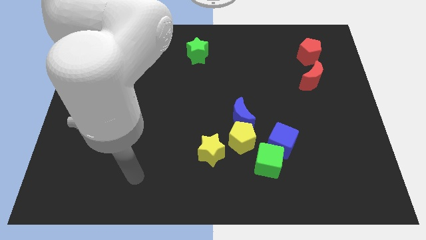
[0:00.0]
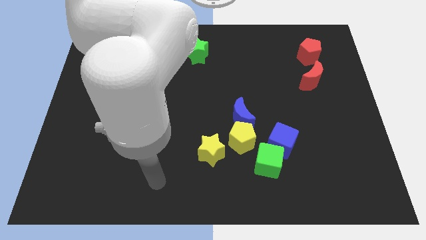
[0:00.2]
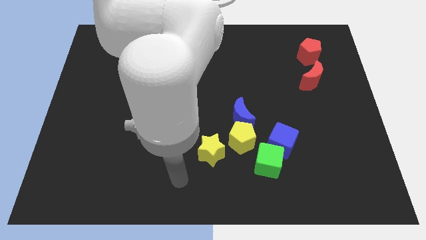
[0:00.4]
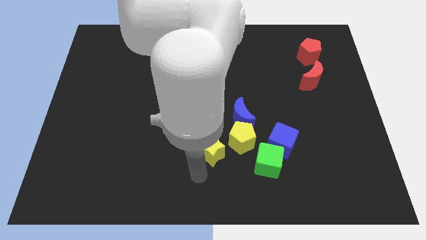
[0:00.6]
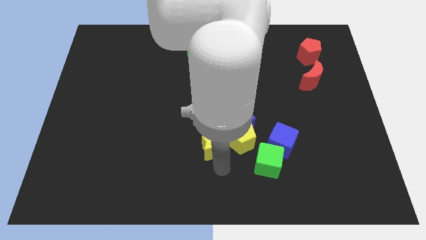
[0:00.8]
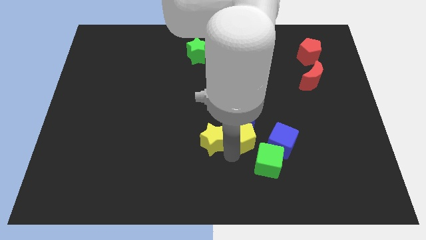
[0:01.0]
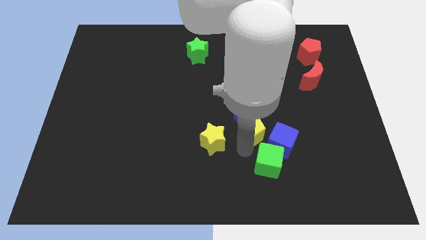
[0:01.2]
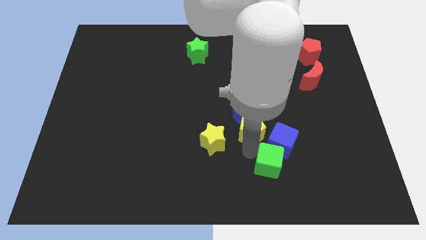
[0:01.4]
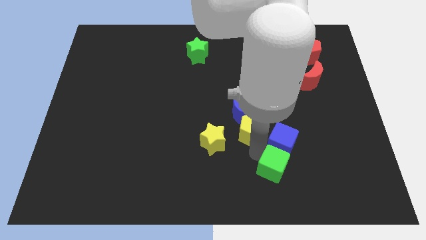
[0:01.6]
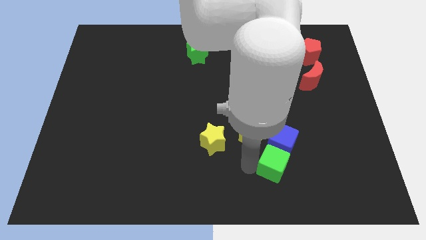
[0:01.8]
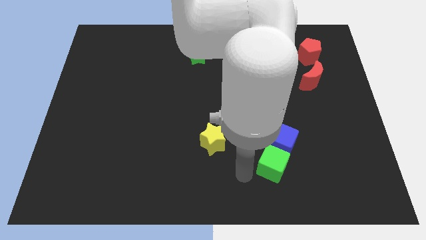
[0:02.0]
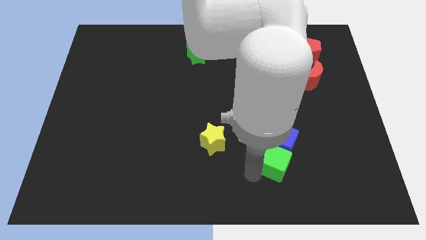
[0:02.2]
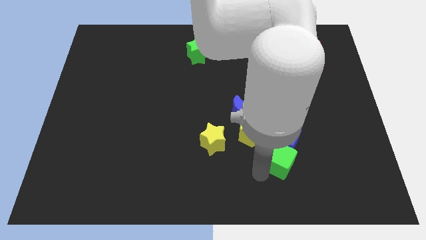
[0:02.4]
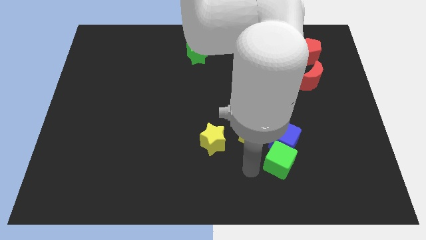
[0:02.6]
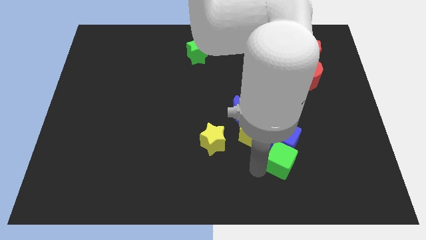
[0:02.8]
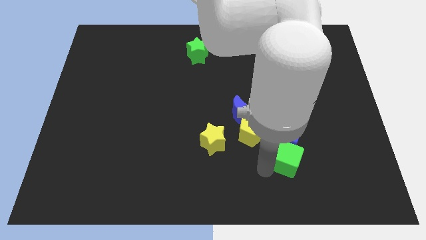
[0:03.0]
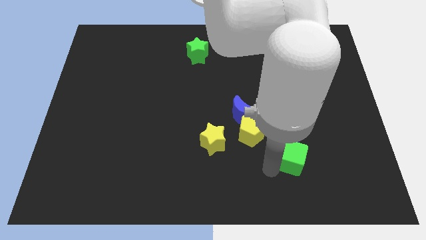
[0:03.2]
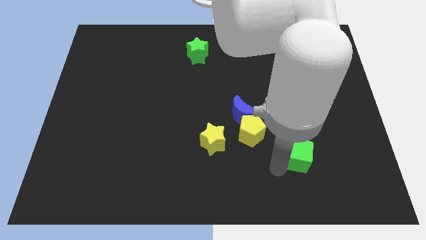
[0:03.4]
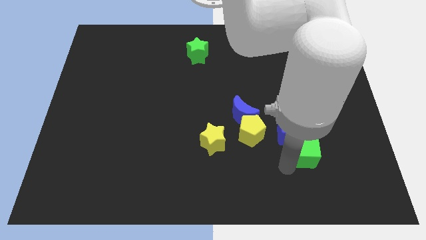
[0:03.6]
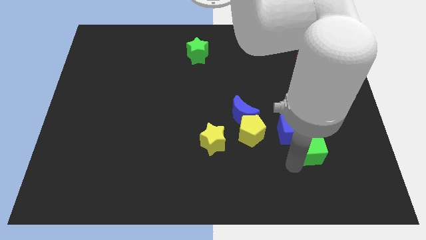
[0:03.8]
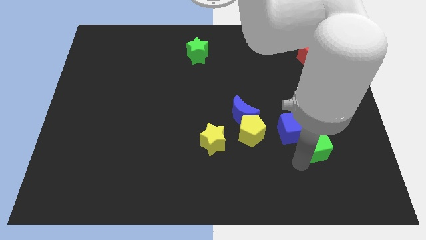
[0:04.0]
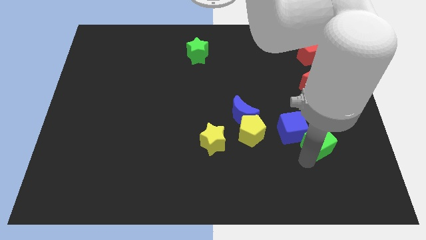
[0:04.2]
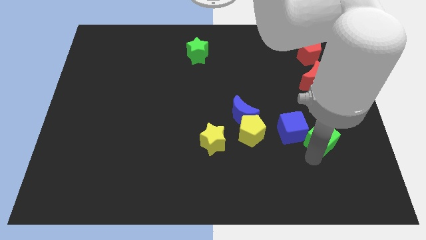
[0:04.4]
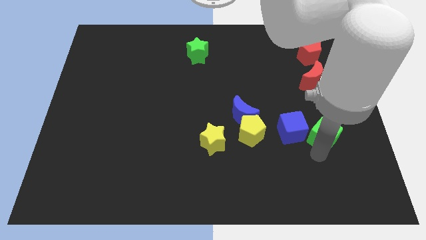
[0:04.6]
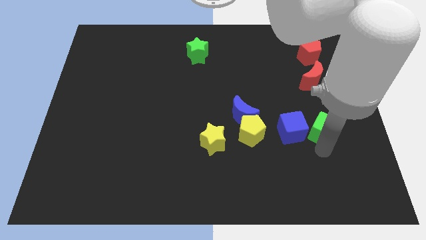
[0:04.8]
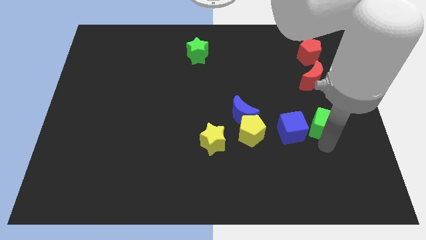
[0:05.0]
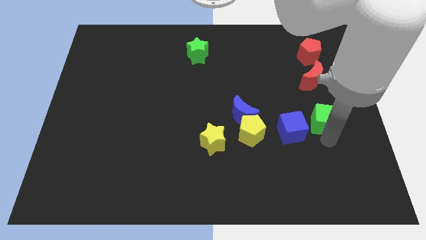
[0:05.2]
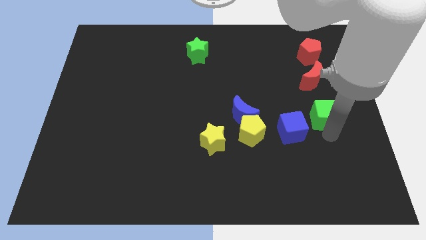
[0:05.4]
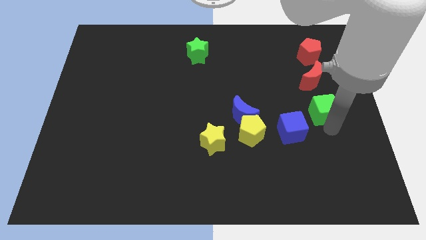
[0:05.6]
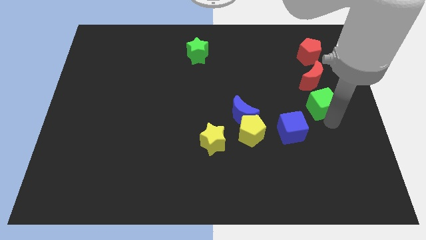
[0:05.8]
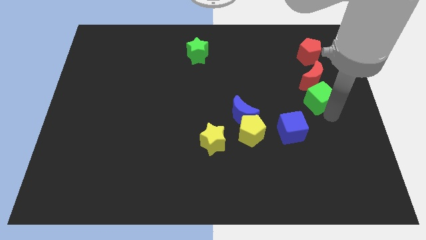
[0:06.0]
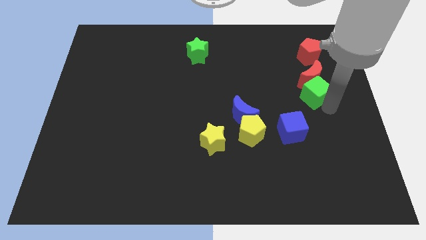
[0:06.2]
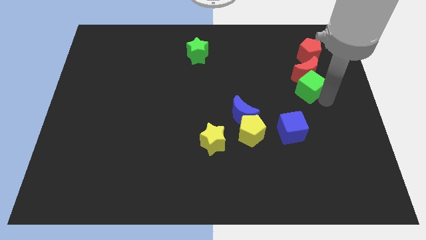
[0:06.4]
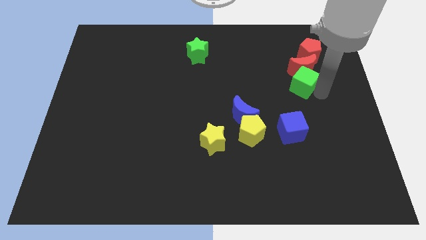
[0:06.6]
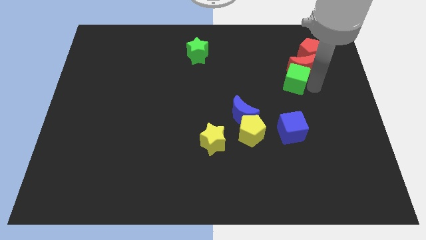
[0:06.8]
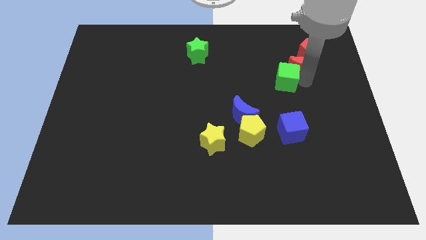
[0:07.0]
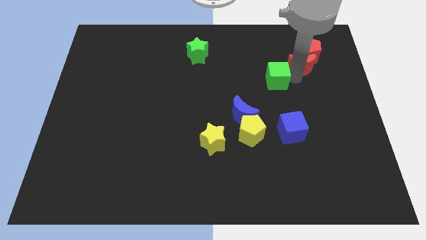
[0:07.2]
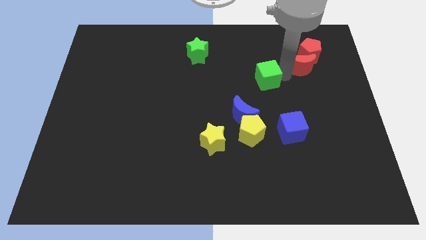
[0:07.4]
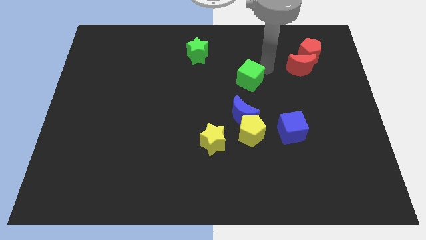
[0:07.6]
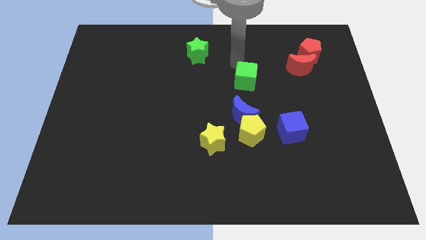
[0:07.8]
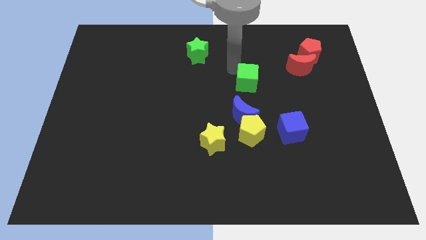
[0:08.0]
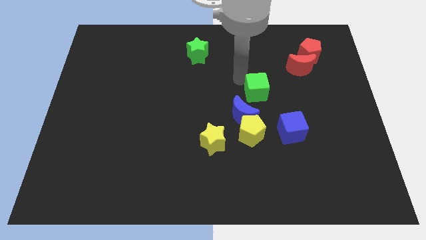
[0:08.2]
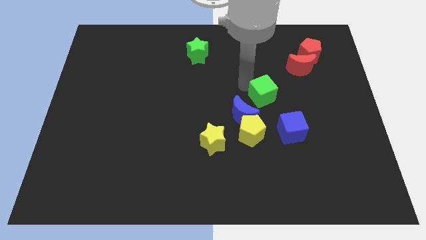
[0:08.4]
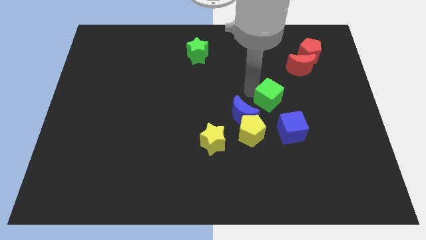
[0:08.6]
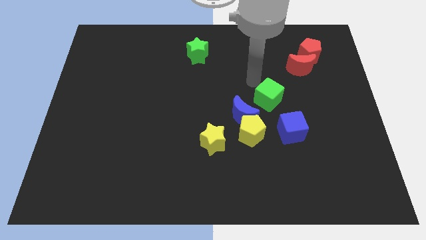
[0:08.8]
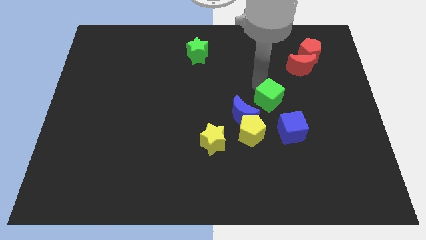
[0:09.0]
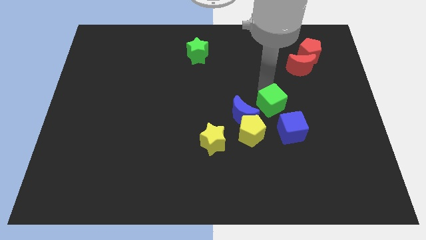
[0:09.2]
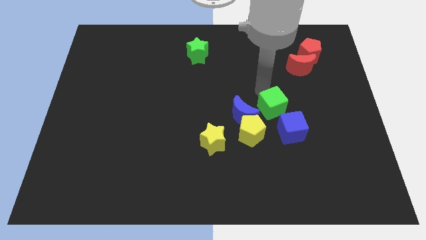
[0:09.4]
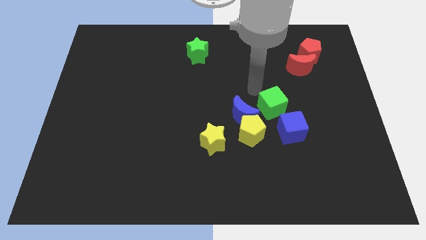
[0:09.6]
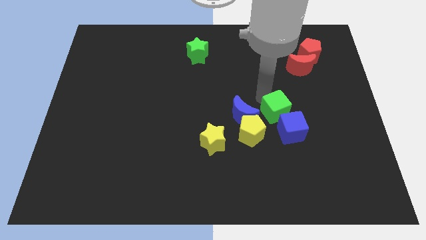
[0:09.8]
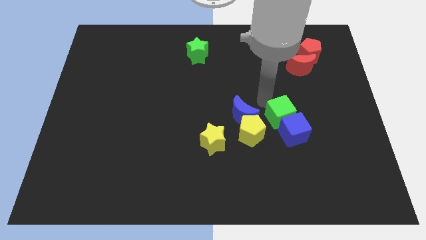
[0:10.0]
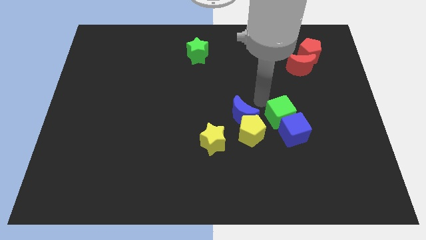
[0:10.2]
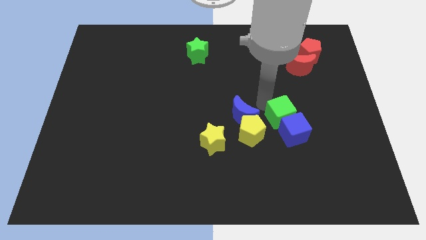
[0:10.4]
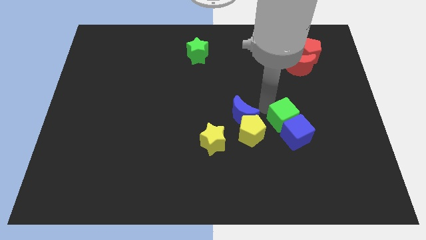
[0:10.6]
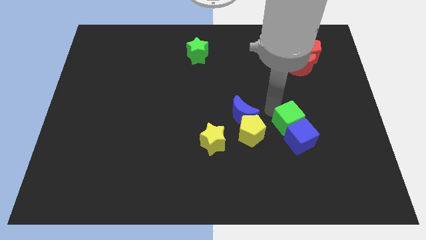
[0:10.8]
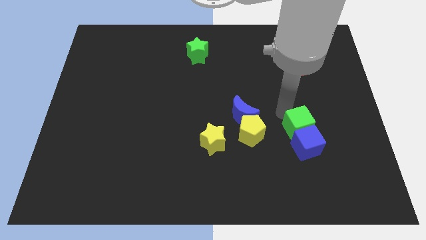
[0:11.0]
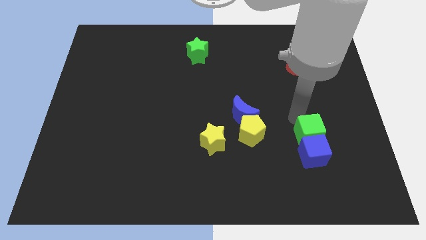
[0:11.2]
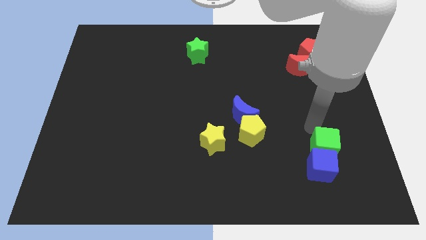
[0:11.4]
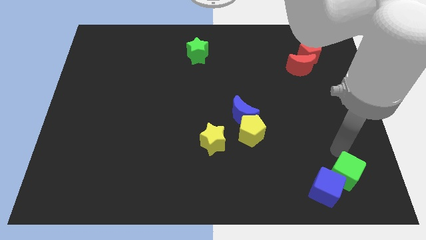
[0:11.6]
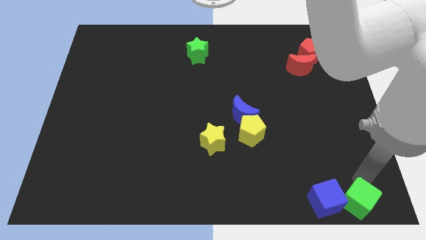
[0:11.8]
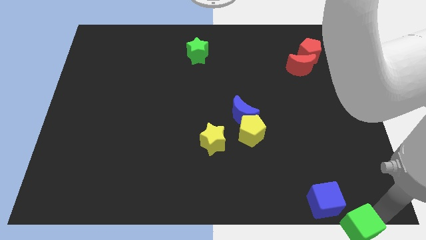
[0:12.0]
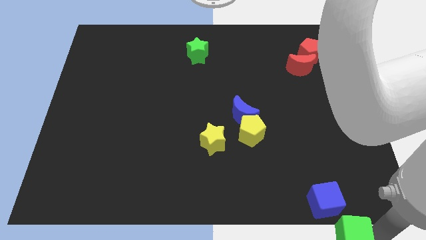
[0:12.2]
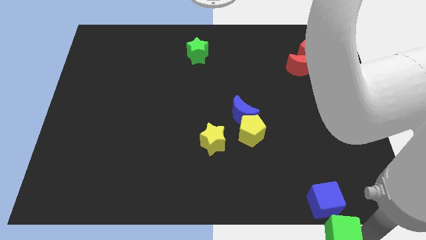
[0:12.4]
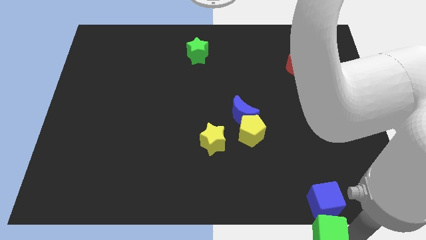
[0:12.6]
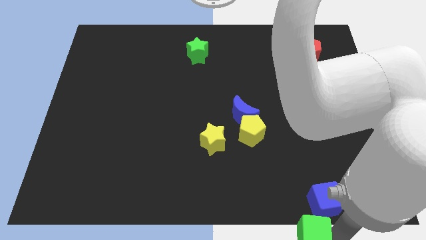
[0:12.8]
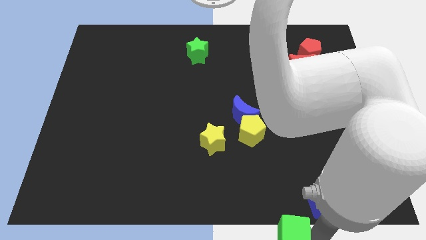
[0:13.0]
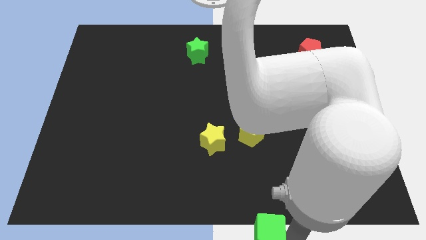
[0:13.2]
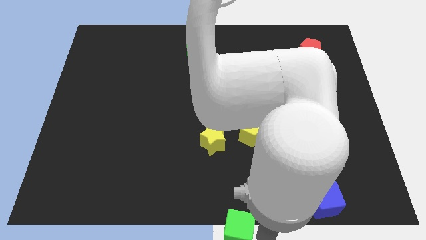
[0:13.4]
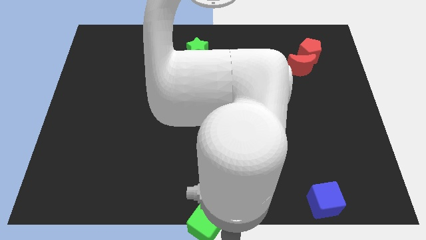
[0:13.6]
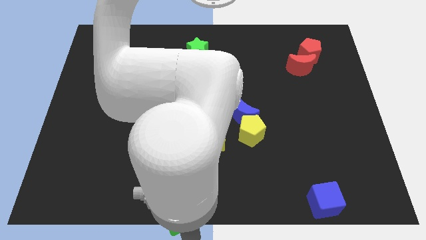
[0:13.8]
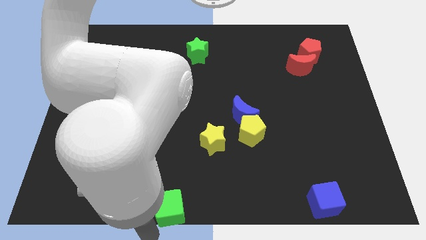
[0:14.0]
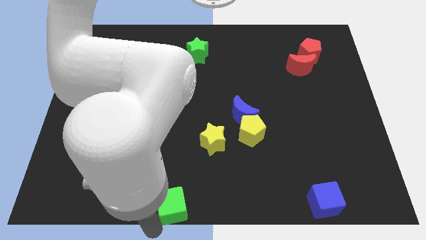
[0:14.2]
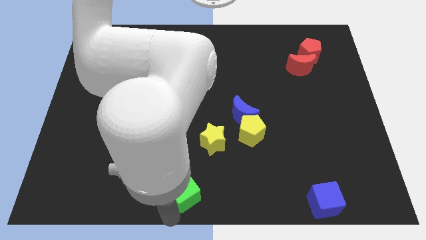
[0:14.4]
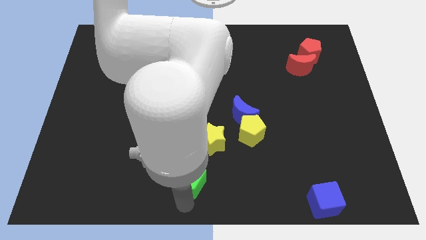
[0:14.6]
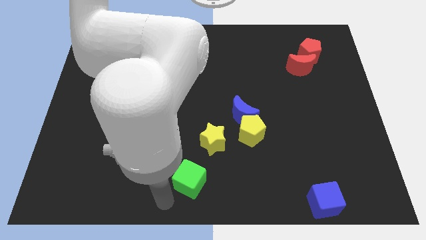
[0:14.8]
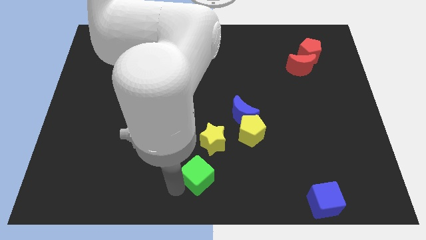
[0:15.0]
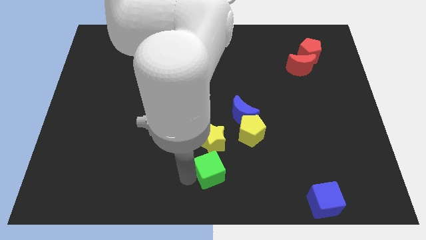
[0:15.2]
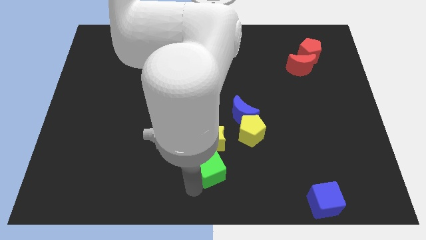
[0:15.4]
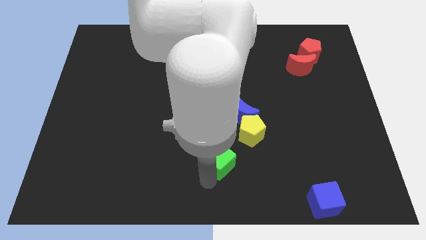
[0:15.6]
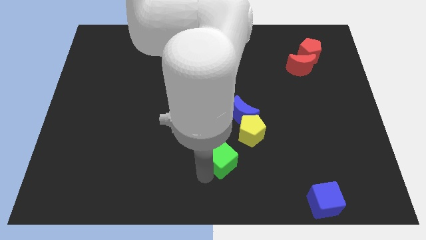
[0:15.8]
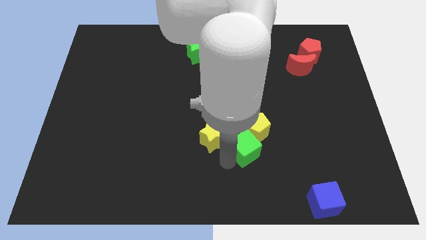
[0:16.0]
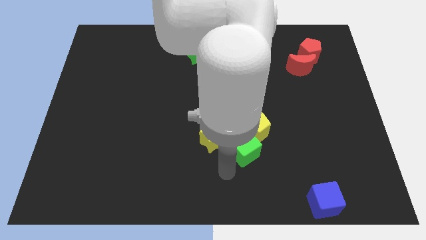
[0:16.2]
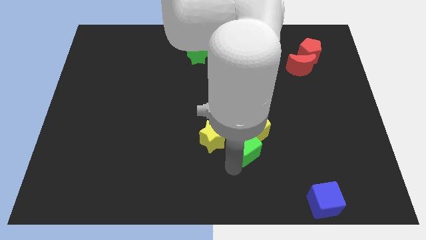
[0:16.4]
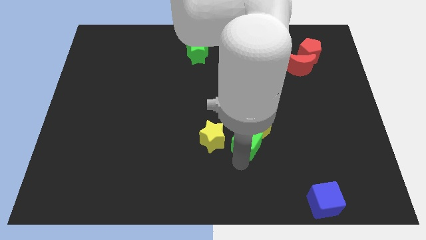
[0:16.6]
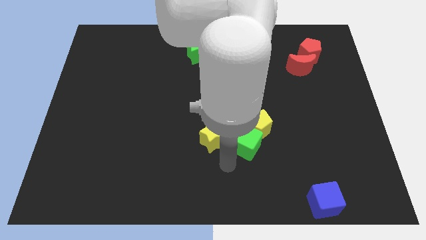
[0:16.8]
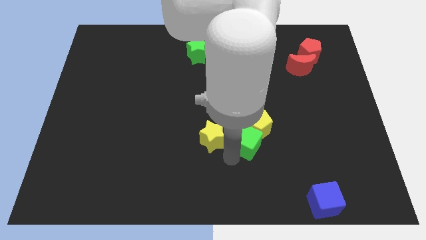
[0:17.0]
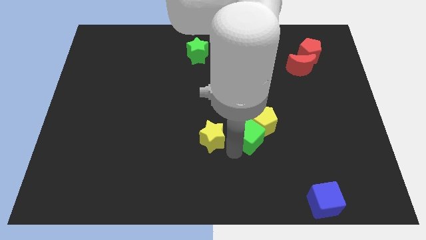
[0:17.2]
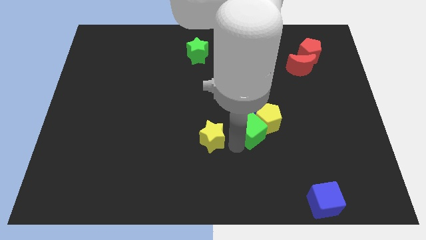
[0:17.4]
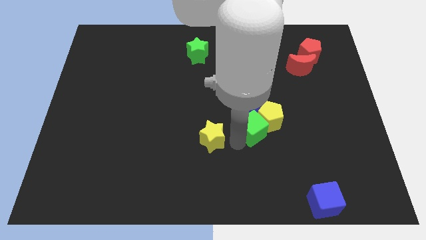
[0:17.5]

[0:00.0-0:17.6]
move the green cube to the blue moon
